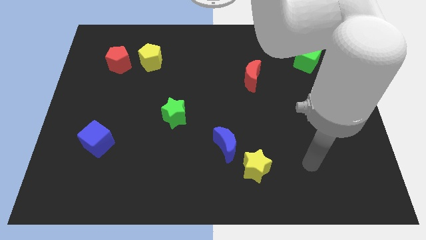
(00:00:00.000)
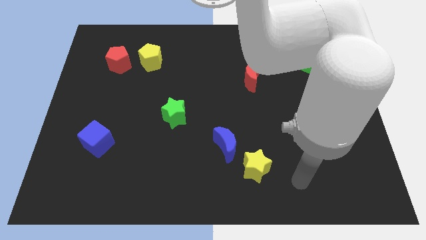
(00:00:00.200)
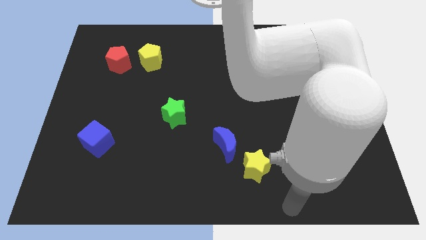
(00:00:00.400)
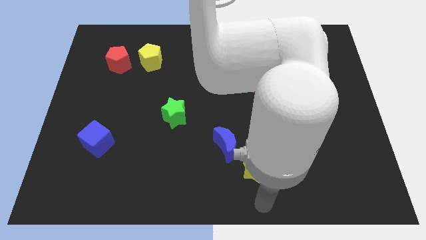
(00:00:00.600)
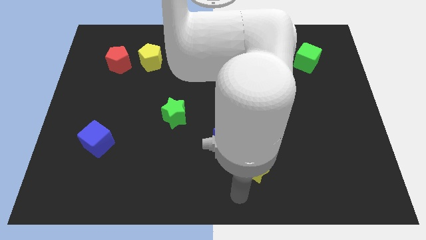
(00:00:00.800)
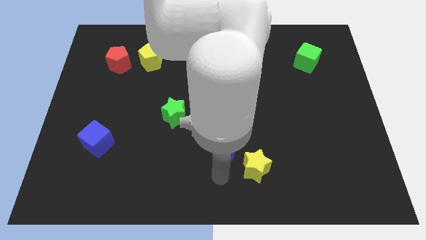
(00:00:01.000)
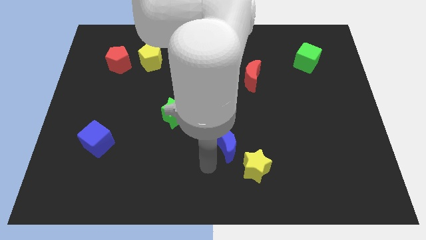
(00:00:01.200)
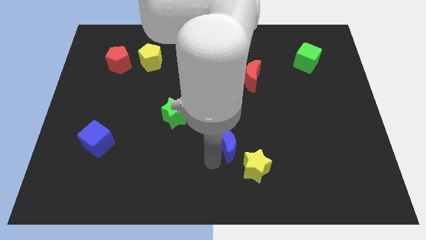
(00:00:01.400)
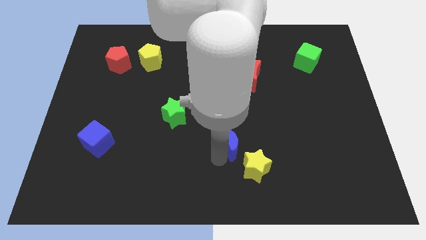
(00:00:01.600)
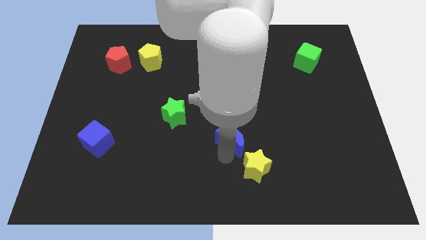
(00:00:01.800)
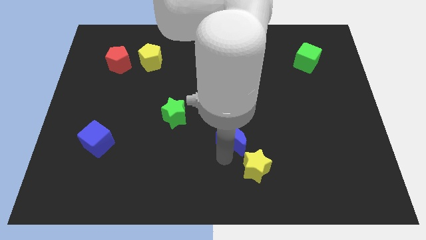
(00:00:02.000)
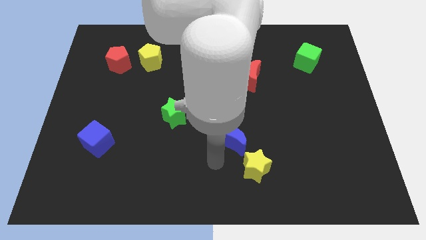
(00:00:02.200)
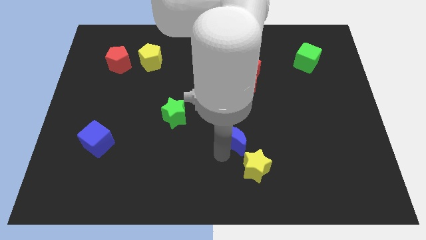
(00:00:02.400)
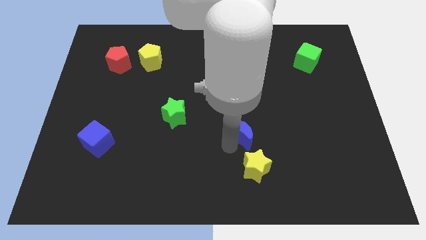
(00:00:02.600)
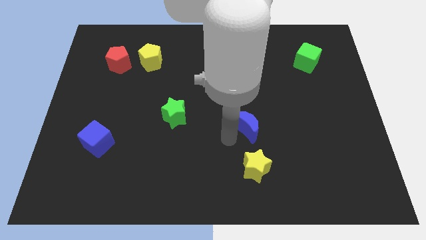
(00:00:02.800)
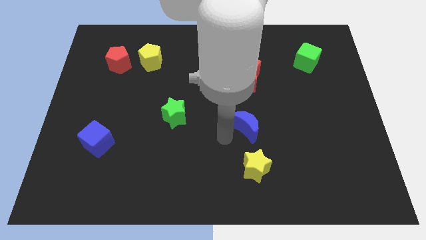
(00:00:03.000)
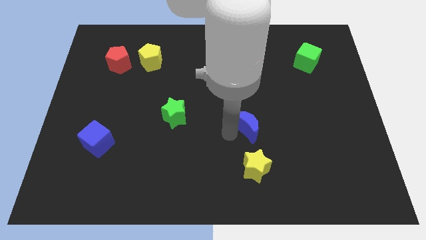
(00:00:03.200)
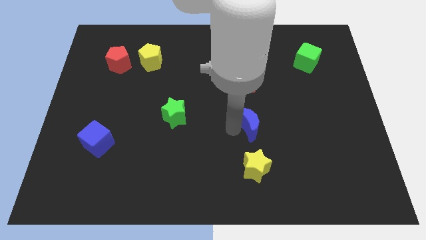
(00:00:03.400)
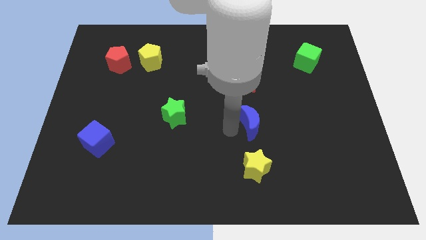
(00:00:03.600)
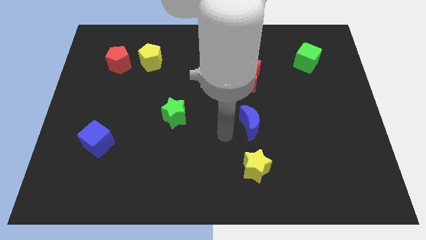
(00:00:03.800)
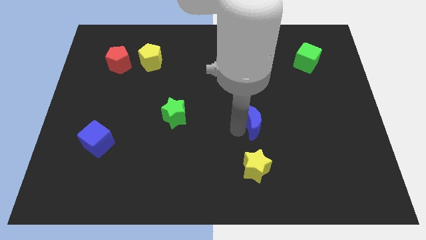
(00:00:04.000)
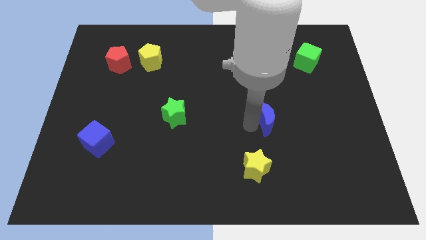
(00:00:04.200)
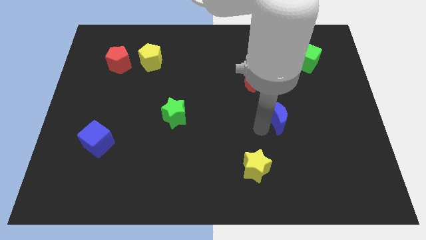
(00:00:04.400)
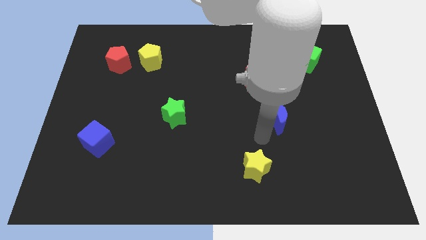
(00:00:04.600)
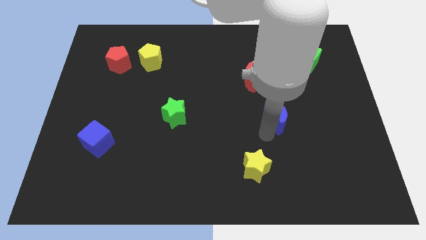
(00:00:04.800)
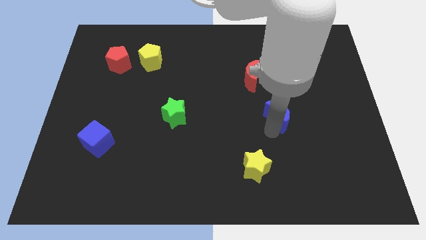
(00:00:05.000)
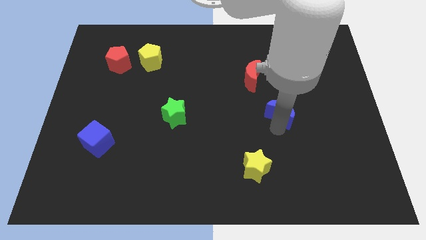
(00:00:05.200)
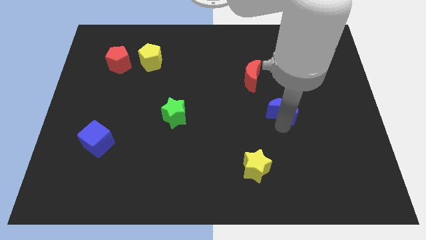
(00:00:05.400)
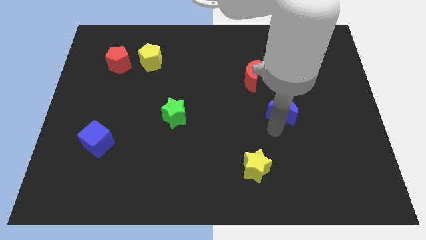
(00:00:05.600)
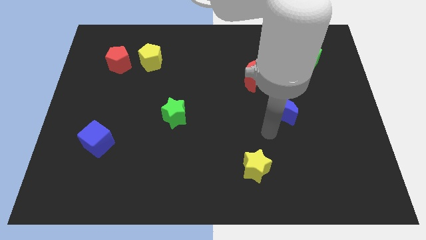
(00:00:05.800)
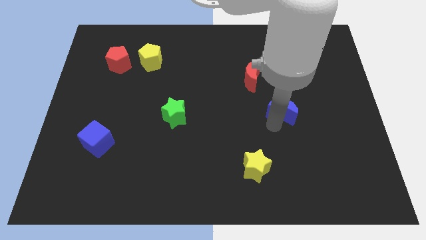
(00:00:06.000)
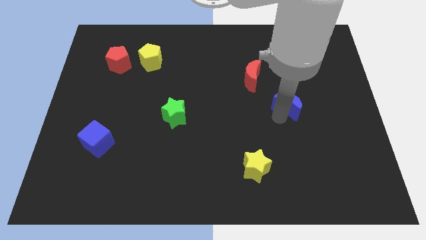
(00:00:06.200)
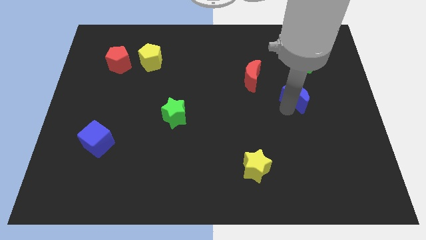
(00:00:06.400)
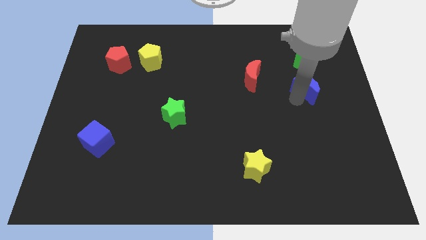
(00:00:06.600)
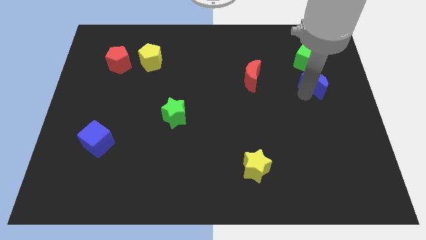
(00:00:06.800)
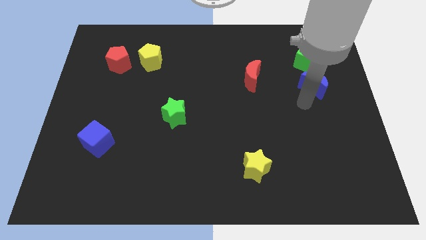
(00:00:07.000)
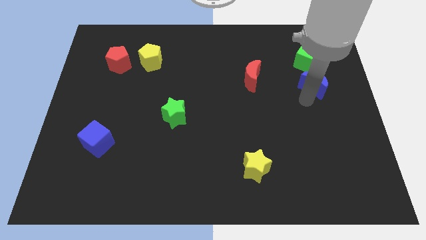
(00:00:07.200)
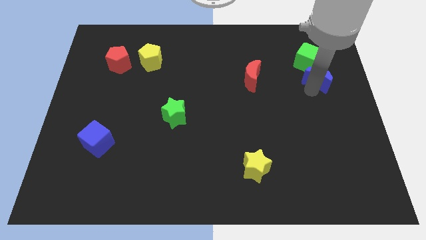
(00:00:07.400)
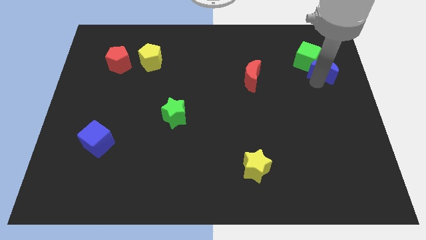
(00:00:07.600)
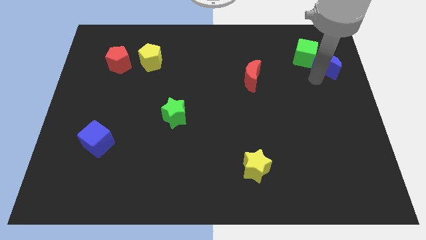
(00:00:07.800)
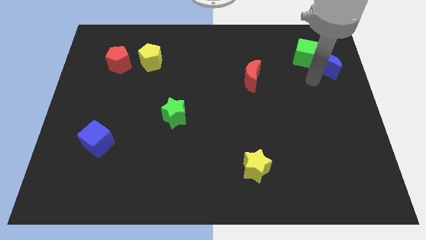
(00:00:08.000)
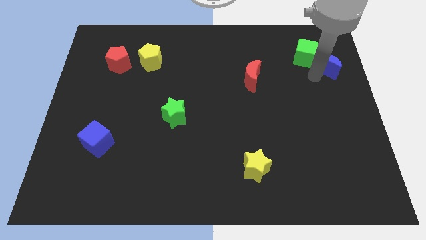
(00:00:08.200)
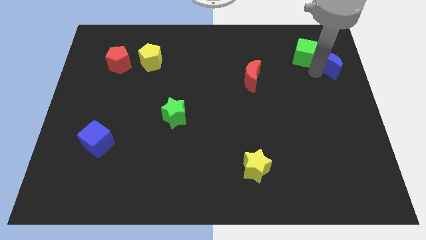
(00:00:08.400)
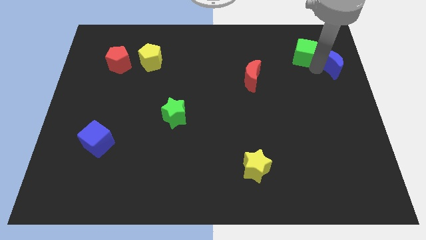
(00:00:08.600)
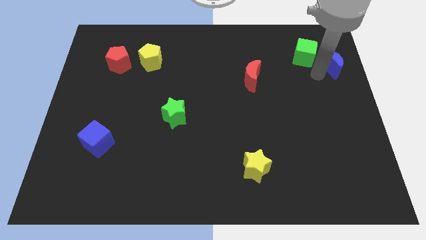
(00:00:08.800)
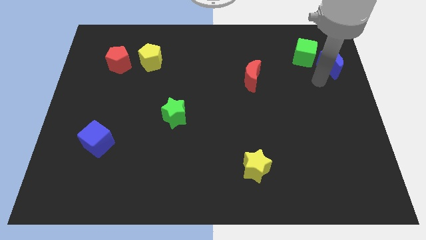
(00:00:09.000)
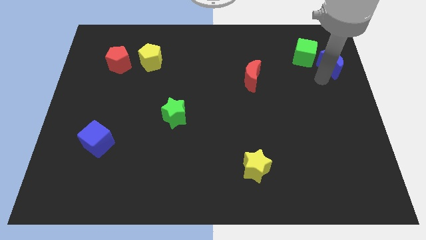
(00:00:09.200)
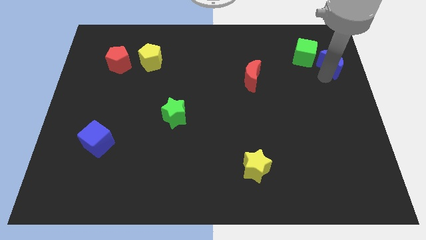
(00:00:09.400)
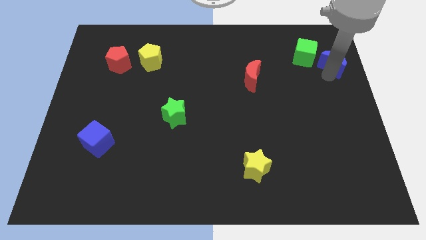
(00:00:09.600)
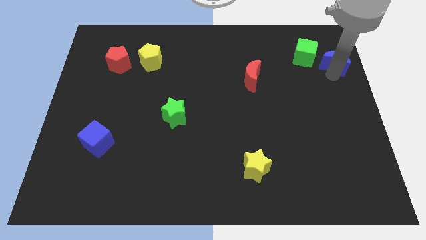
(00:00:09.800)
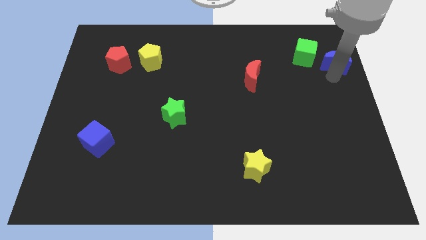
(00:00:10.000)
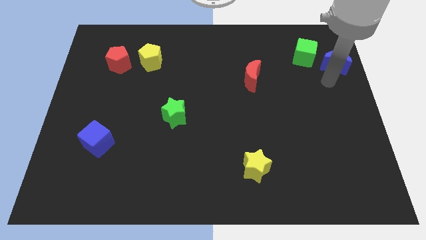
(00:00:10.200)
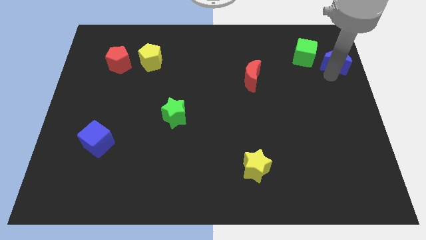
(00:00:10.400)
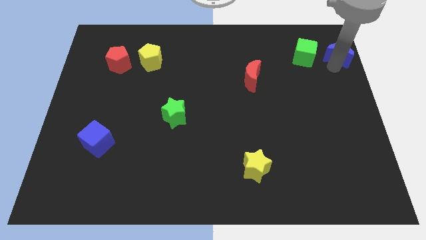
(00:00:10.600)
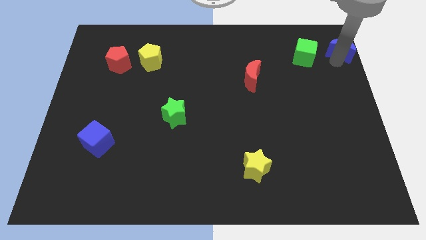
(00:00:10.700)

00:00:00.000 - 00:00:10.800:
push the blue moon to the top right of the board

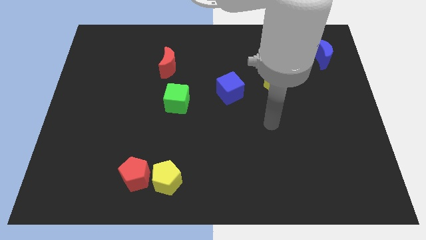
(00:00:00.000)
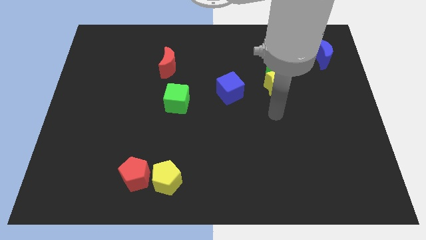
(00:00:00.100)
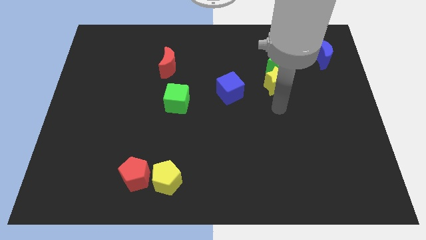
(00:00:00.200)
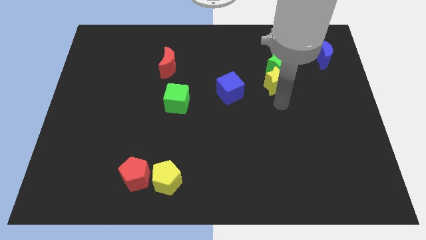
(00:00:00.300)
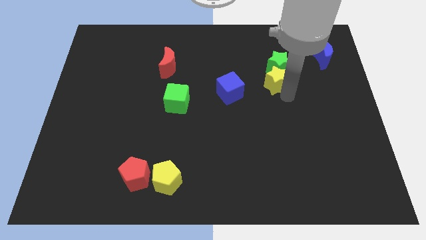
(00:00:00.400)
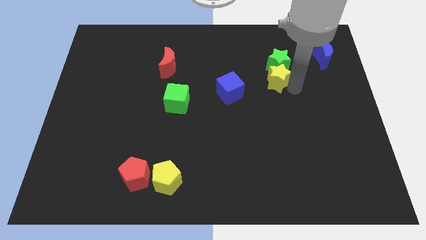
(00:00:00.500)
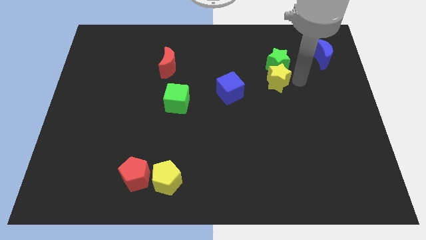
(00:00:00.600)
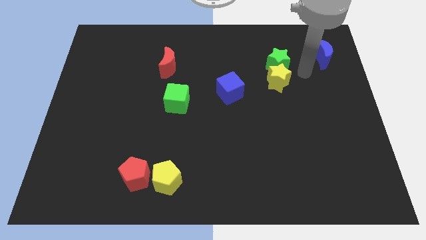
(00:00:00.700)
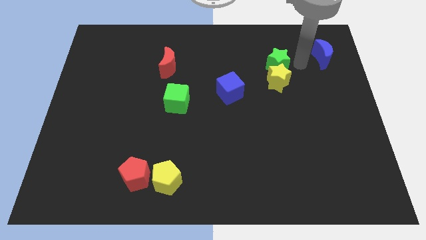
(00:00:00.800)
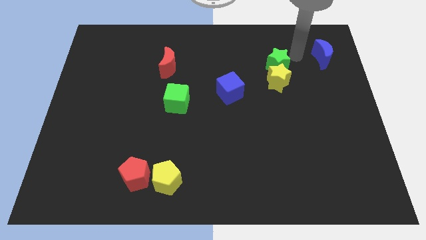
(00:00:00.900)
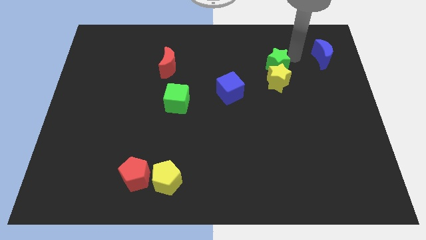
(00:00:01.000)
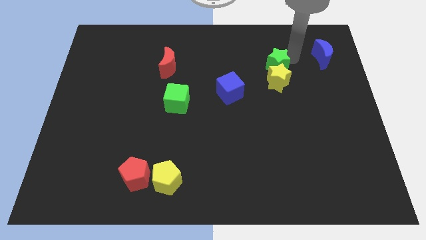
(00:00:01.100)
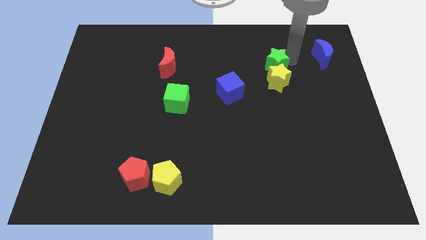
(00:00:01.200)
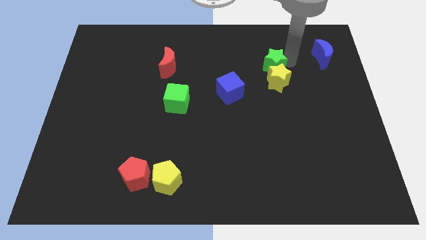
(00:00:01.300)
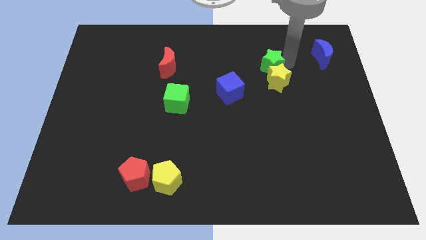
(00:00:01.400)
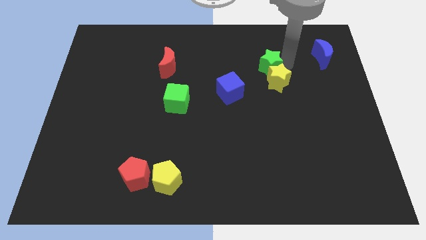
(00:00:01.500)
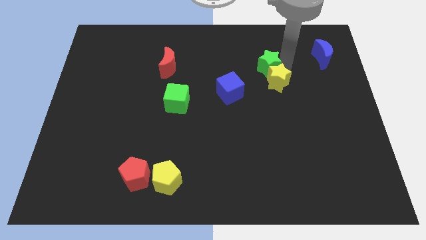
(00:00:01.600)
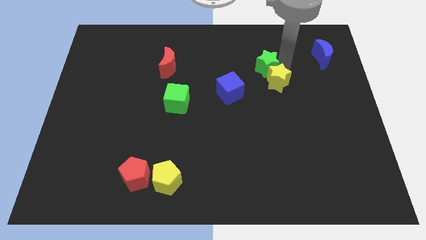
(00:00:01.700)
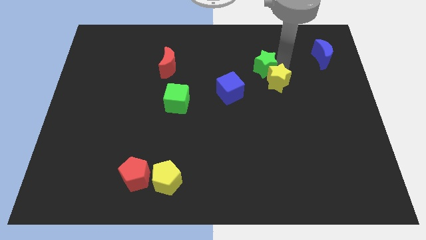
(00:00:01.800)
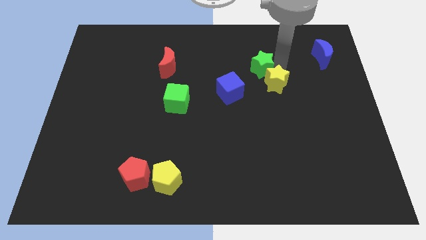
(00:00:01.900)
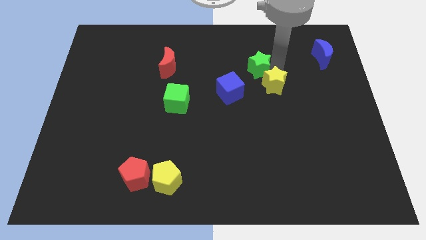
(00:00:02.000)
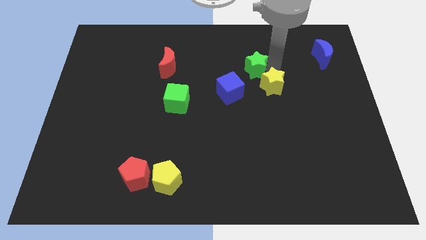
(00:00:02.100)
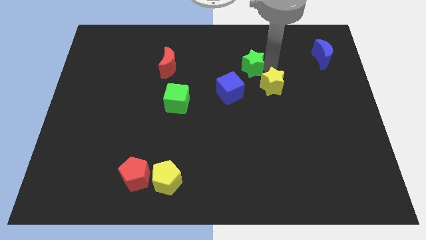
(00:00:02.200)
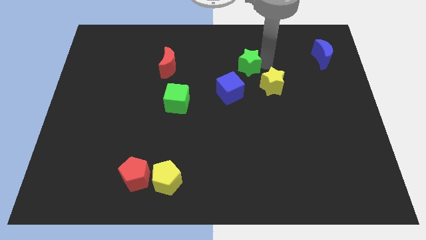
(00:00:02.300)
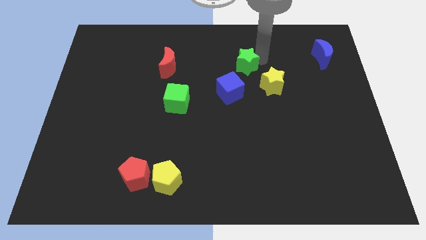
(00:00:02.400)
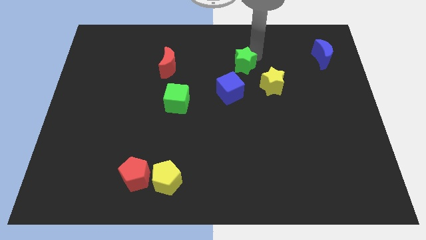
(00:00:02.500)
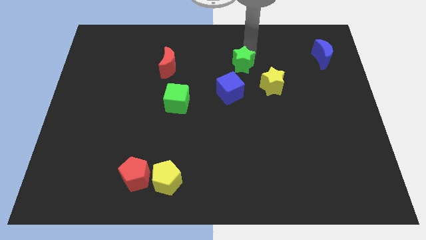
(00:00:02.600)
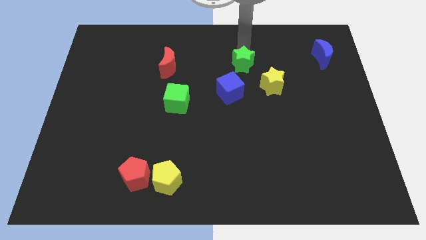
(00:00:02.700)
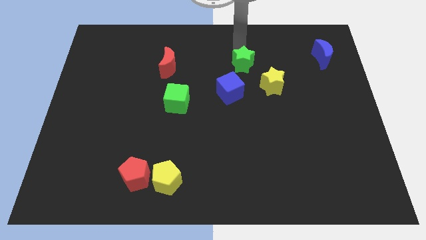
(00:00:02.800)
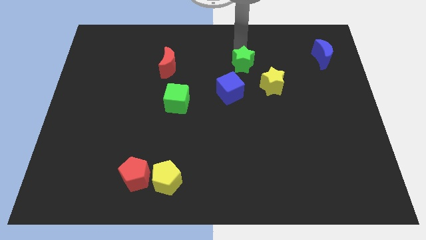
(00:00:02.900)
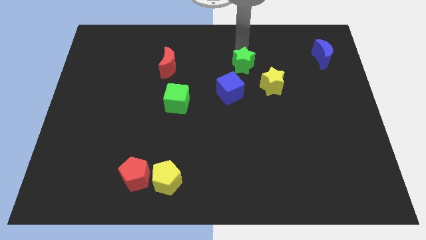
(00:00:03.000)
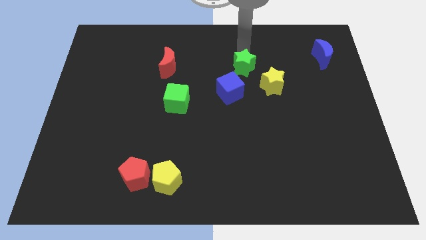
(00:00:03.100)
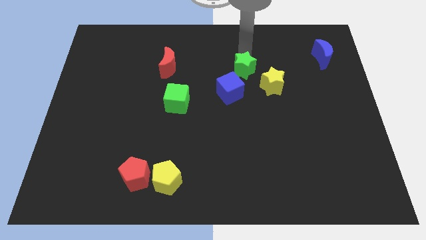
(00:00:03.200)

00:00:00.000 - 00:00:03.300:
put the green star to the center
